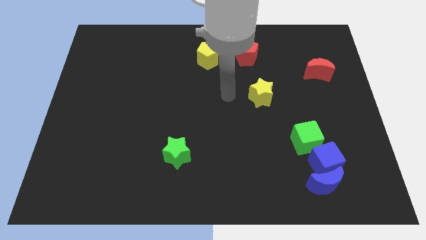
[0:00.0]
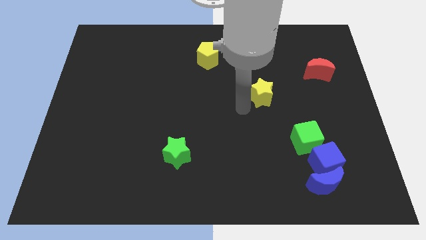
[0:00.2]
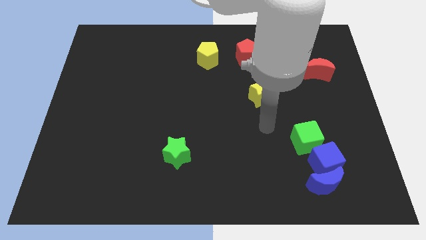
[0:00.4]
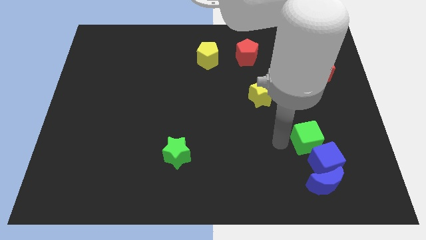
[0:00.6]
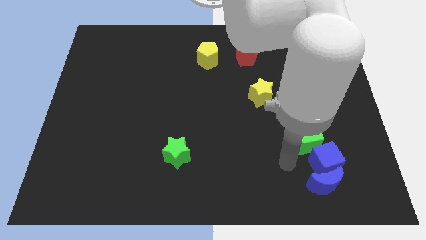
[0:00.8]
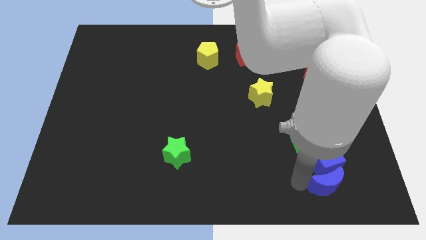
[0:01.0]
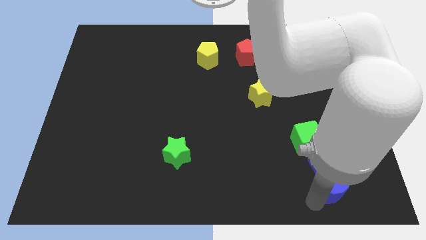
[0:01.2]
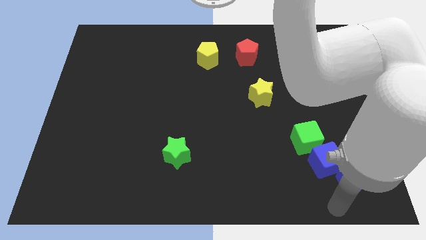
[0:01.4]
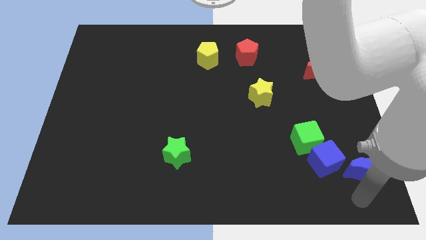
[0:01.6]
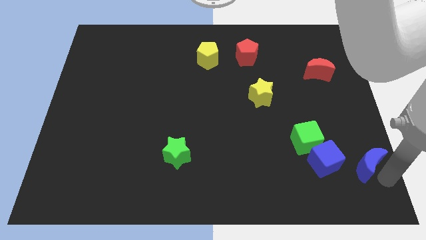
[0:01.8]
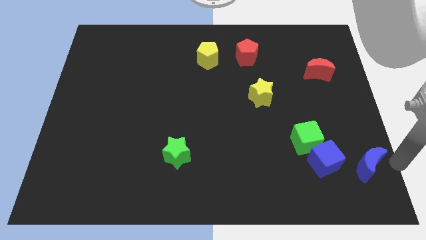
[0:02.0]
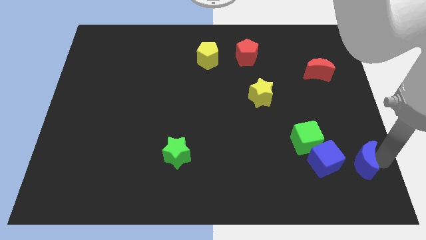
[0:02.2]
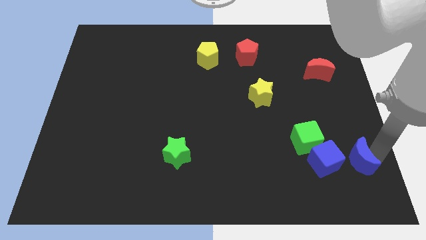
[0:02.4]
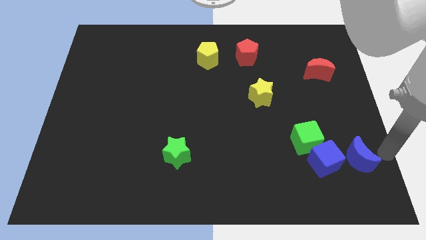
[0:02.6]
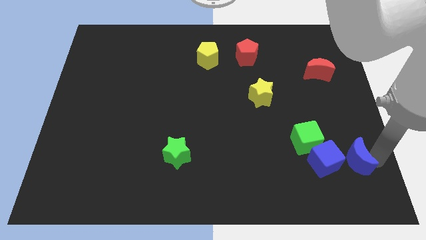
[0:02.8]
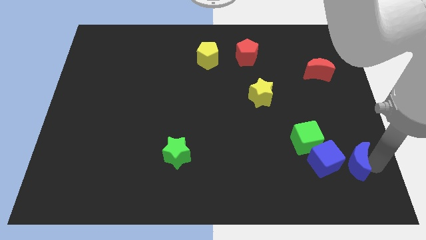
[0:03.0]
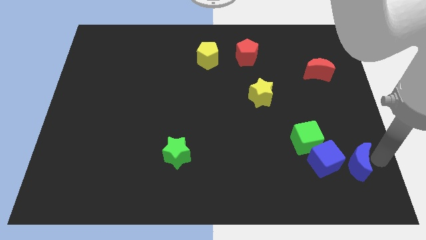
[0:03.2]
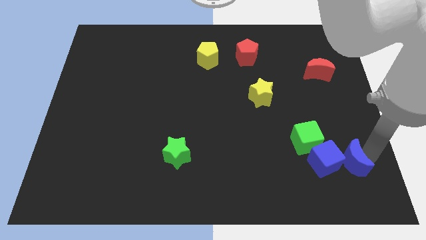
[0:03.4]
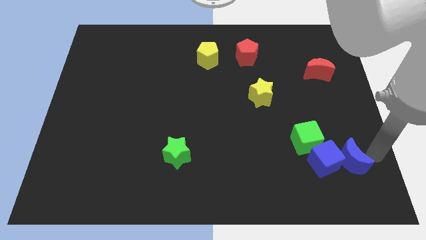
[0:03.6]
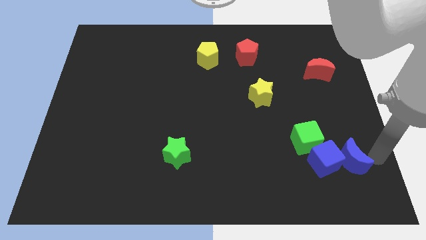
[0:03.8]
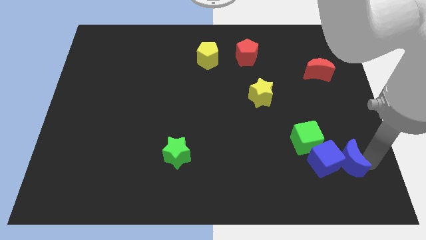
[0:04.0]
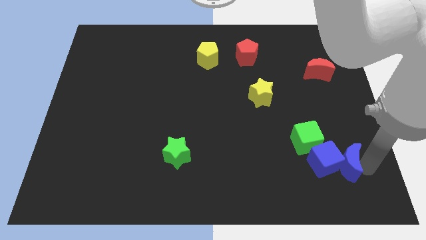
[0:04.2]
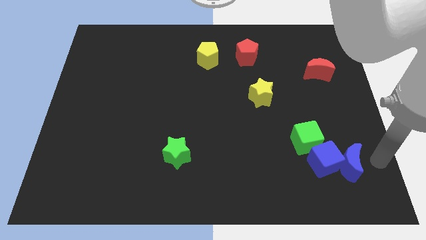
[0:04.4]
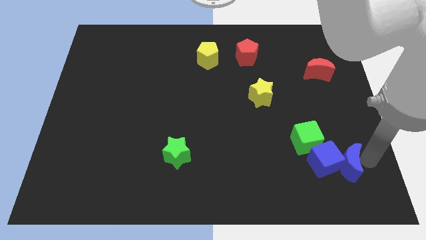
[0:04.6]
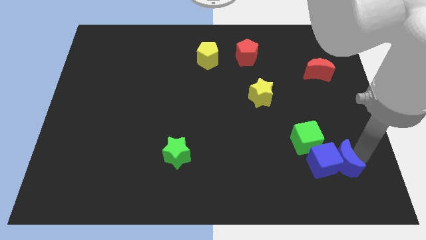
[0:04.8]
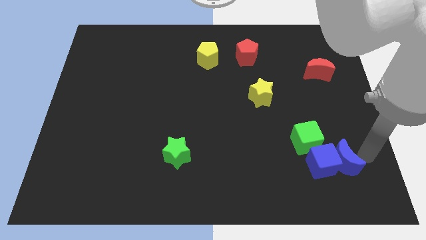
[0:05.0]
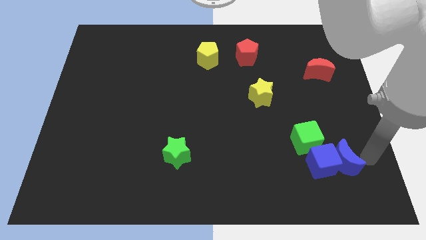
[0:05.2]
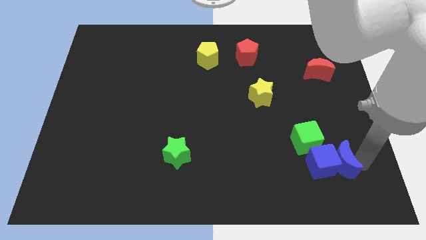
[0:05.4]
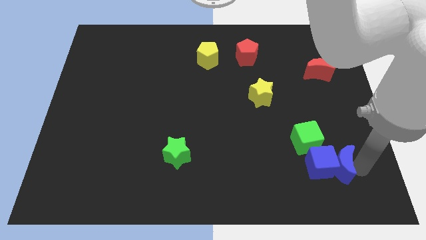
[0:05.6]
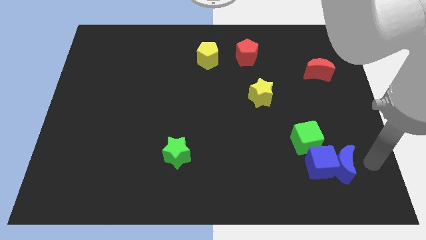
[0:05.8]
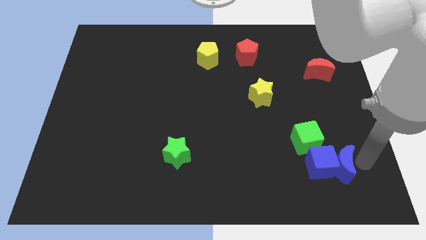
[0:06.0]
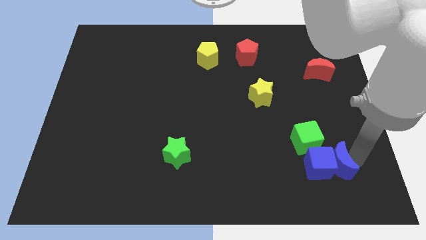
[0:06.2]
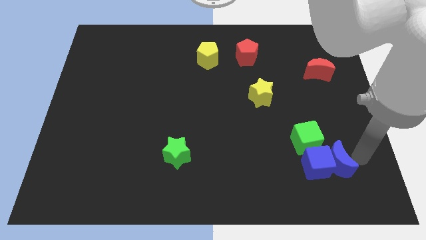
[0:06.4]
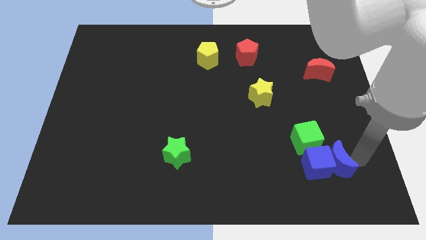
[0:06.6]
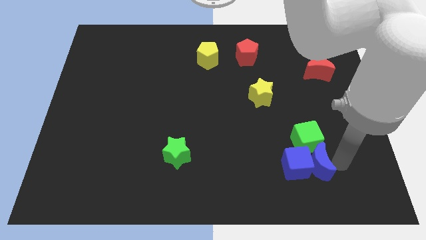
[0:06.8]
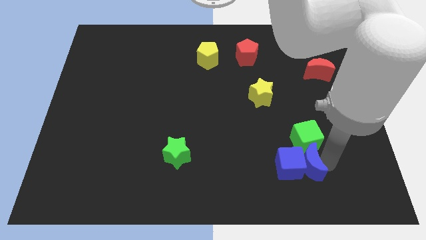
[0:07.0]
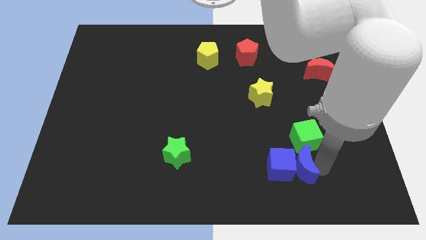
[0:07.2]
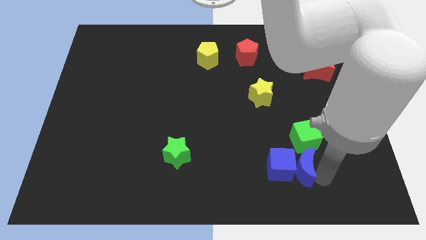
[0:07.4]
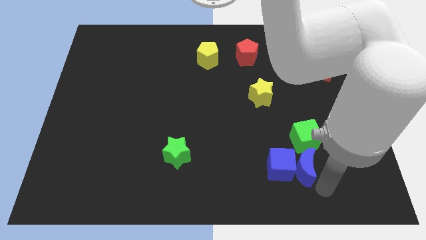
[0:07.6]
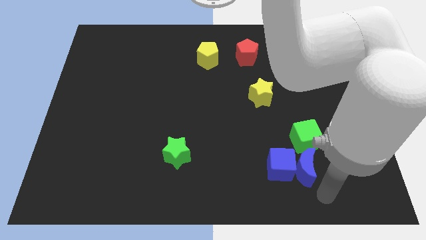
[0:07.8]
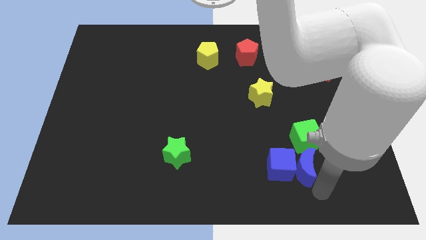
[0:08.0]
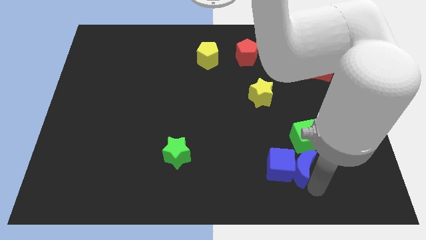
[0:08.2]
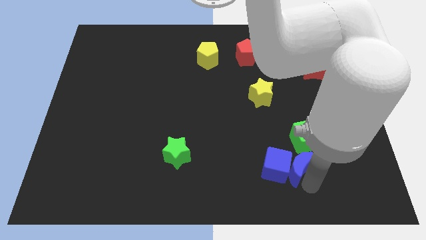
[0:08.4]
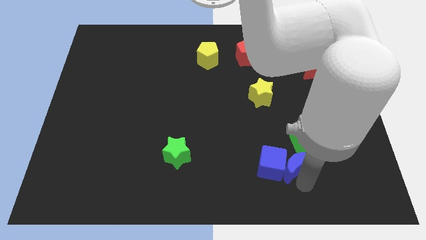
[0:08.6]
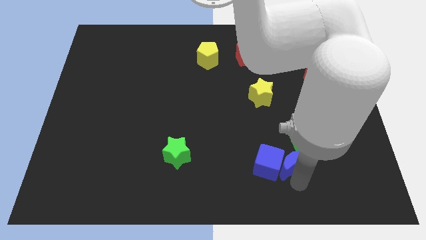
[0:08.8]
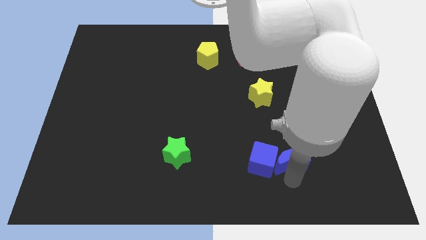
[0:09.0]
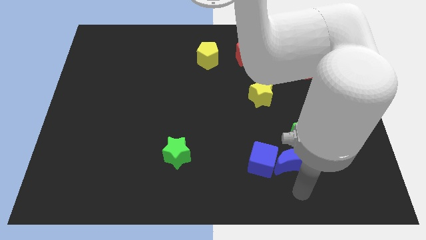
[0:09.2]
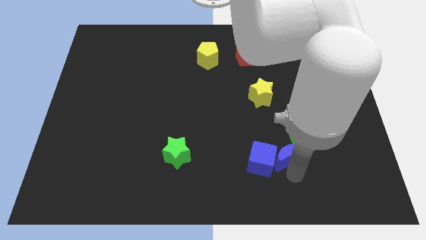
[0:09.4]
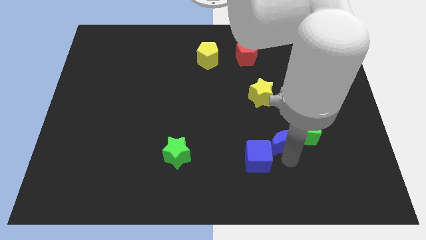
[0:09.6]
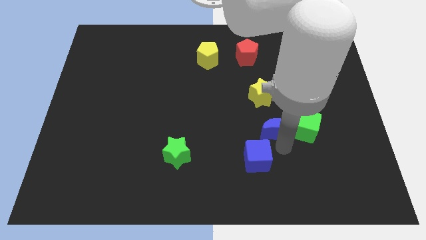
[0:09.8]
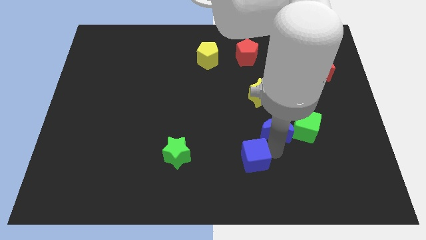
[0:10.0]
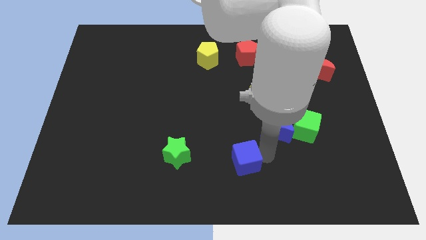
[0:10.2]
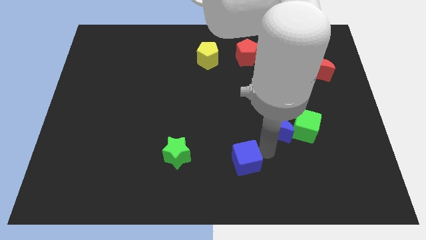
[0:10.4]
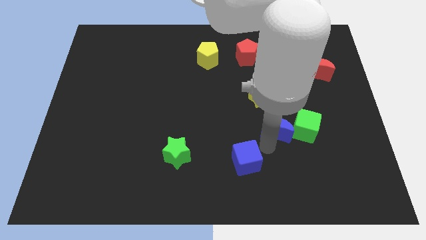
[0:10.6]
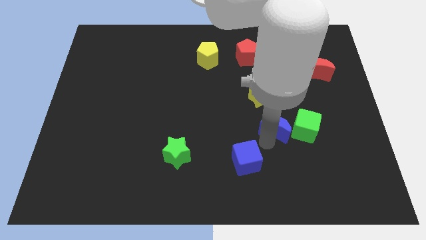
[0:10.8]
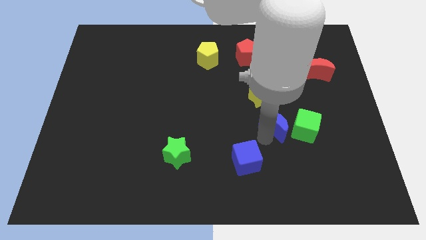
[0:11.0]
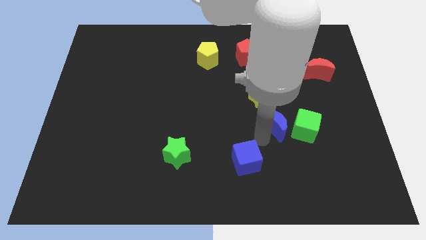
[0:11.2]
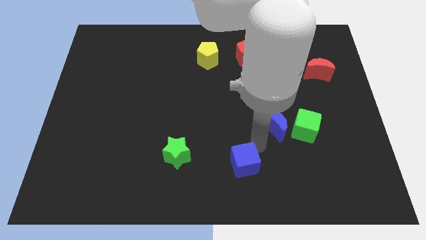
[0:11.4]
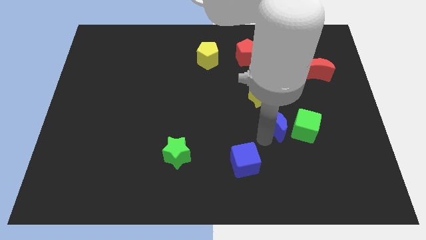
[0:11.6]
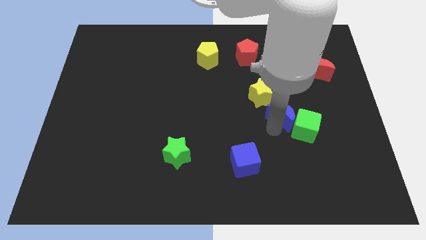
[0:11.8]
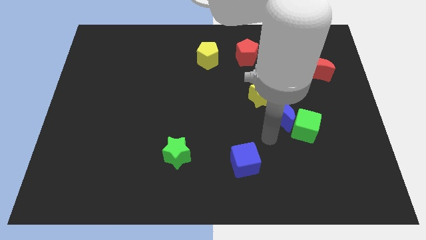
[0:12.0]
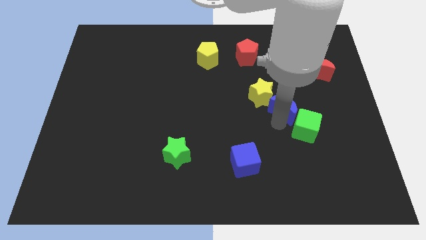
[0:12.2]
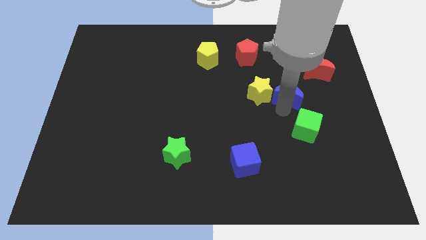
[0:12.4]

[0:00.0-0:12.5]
slide the blue moon to the bottom left side of the red moon

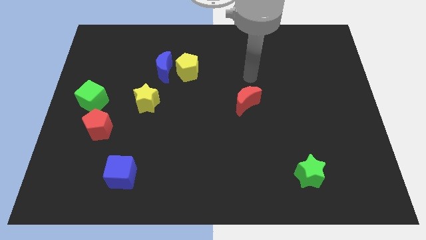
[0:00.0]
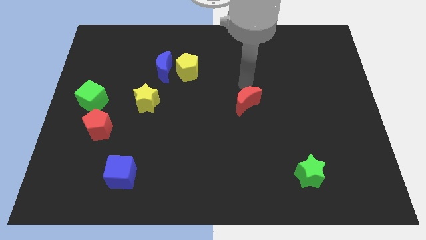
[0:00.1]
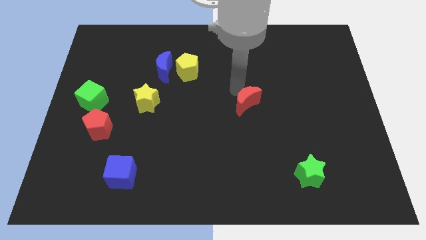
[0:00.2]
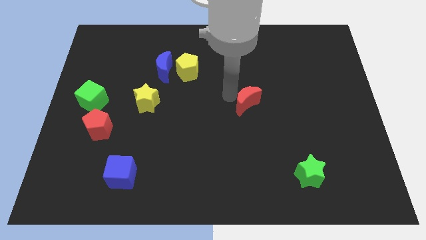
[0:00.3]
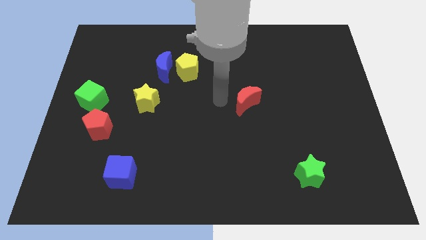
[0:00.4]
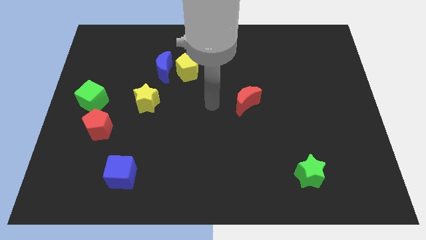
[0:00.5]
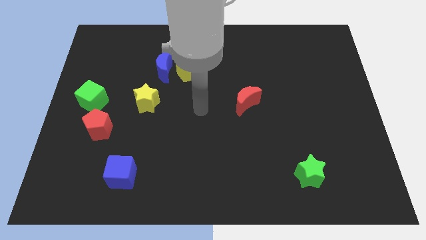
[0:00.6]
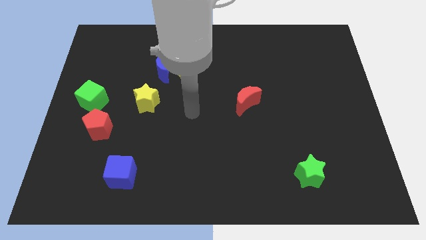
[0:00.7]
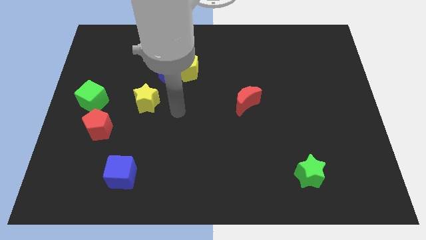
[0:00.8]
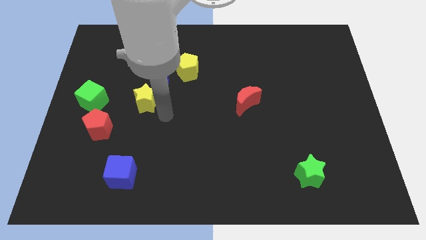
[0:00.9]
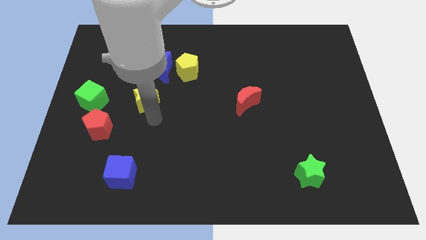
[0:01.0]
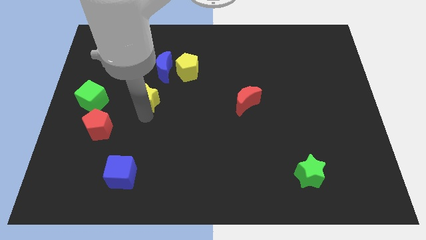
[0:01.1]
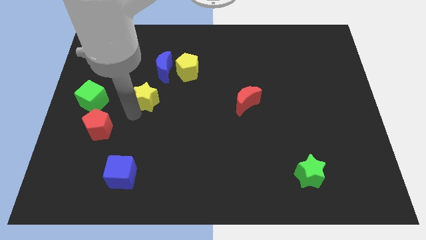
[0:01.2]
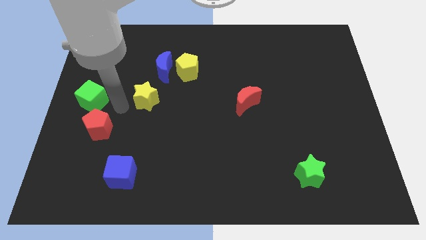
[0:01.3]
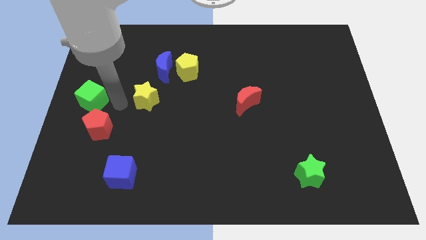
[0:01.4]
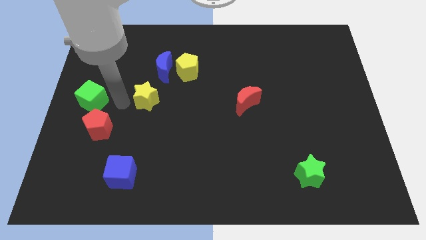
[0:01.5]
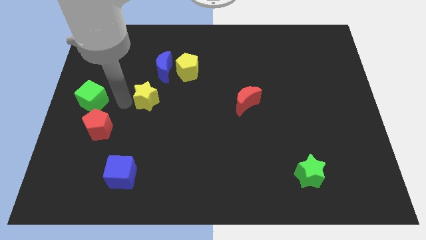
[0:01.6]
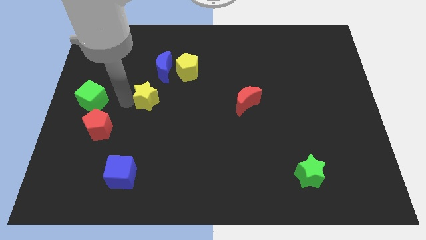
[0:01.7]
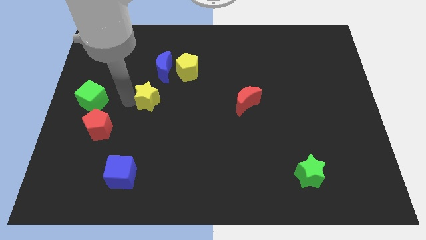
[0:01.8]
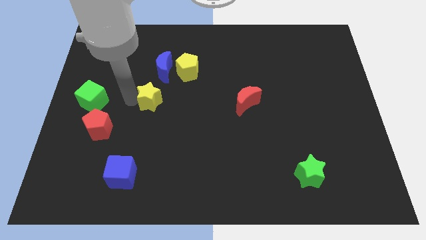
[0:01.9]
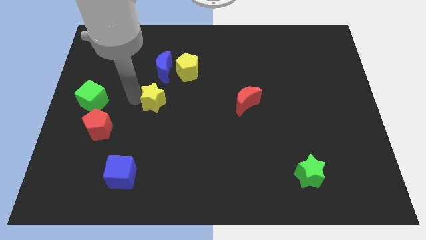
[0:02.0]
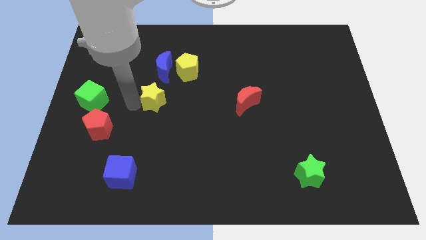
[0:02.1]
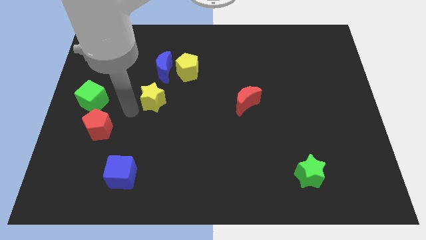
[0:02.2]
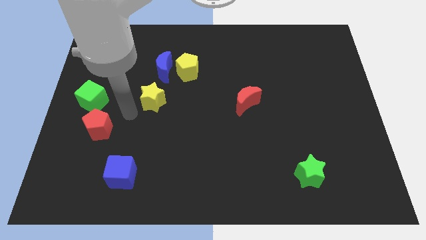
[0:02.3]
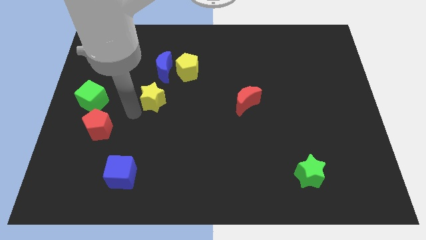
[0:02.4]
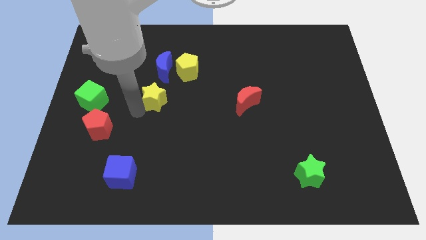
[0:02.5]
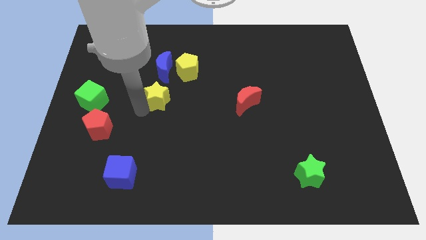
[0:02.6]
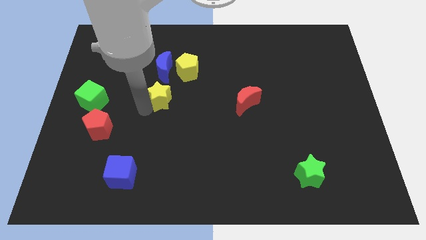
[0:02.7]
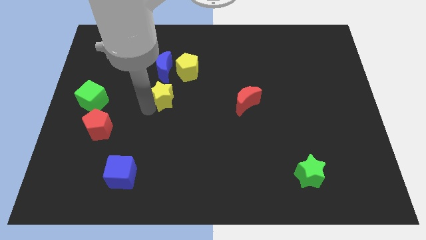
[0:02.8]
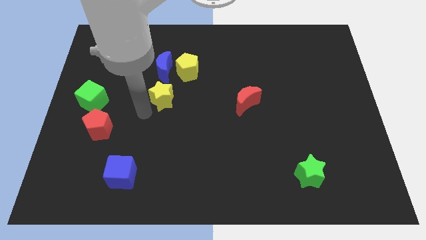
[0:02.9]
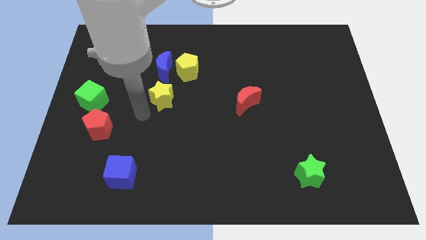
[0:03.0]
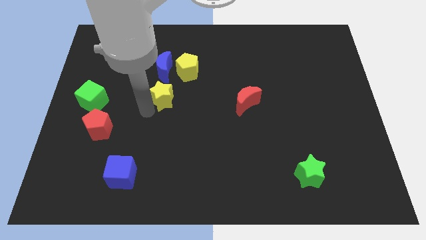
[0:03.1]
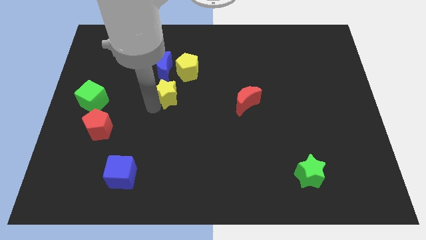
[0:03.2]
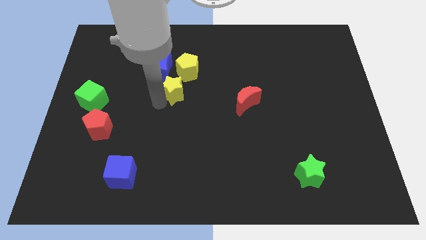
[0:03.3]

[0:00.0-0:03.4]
move the yellow star to the bottom right of the blue moon
